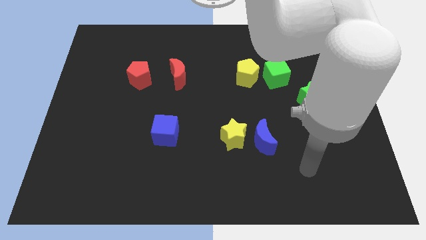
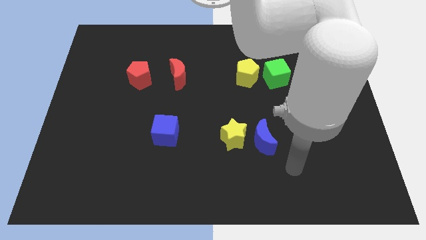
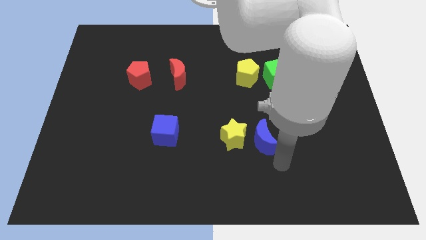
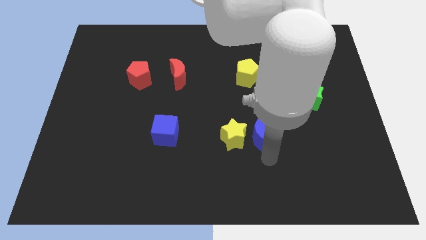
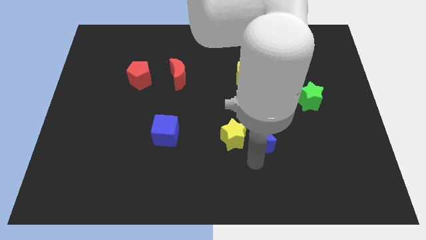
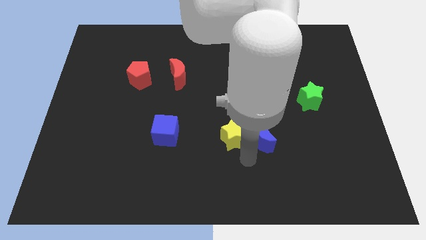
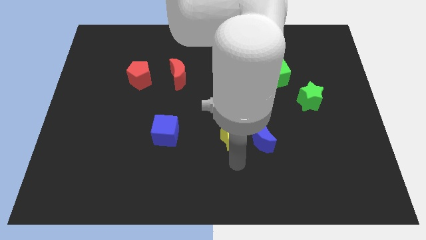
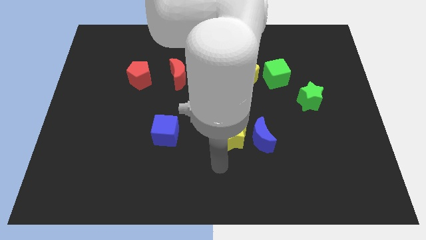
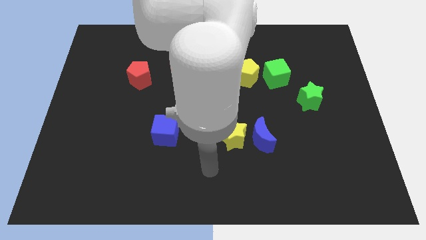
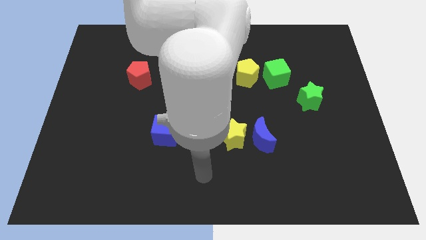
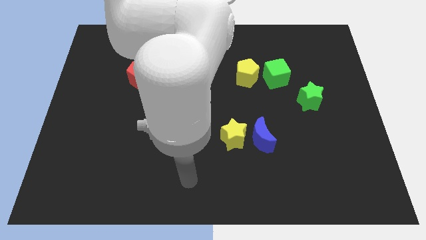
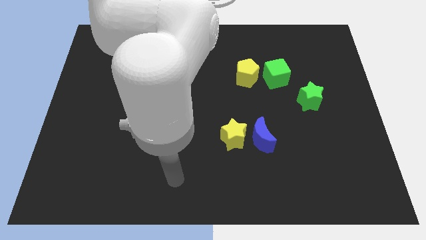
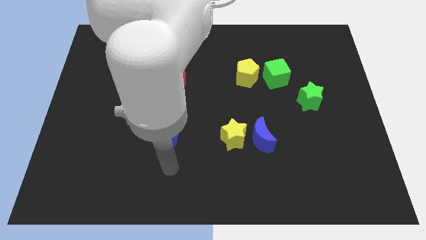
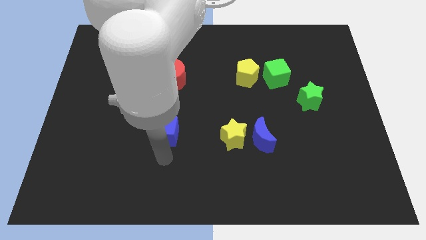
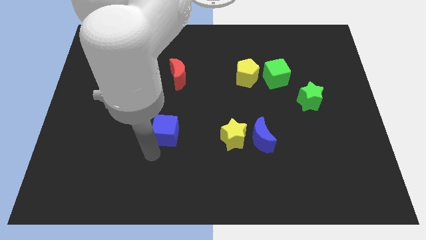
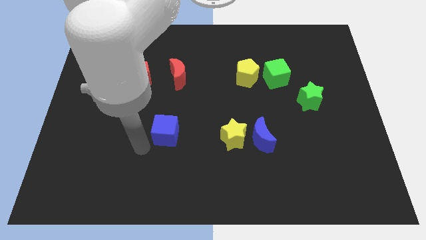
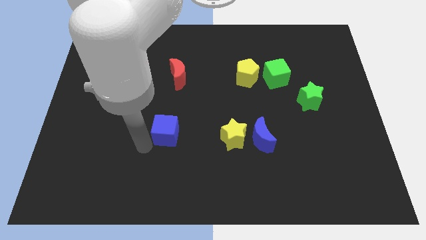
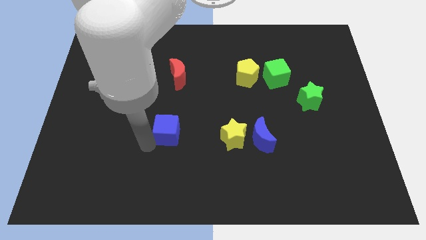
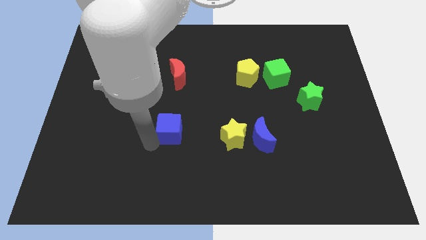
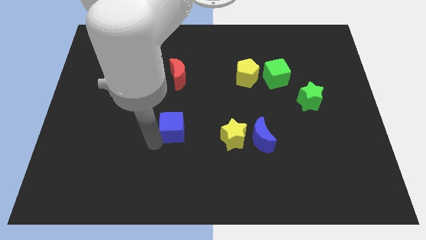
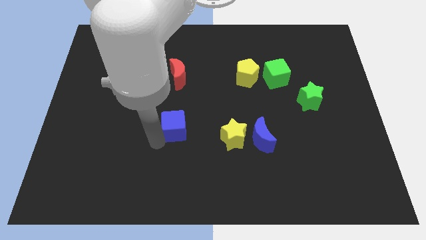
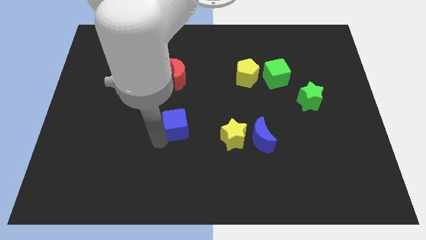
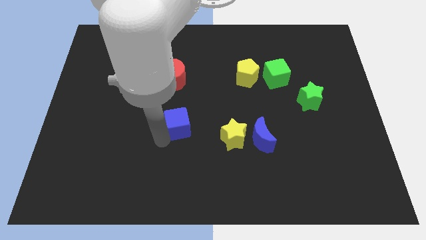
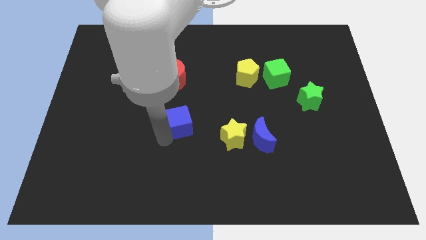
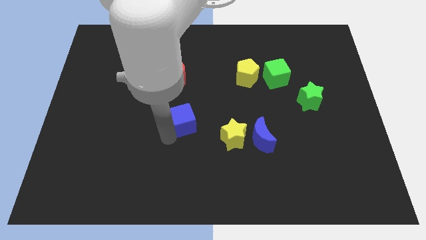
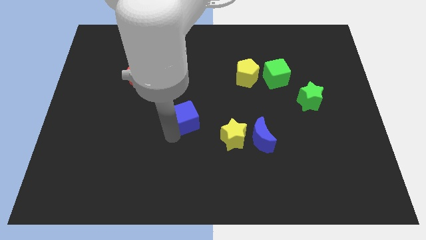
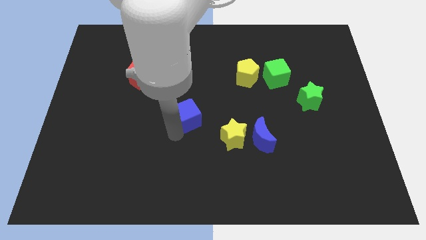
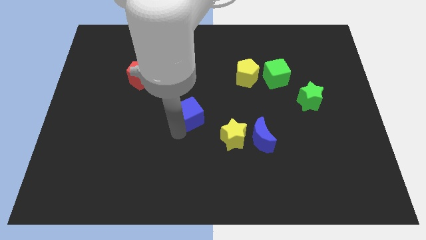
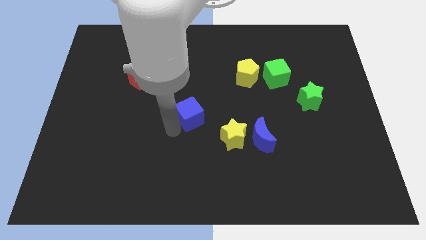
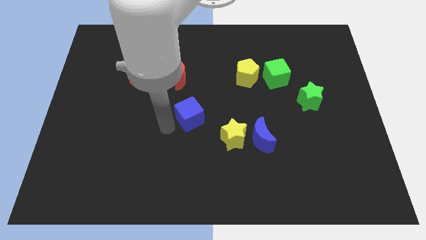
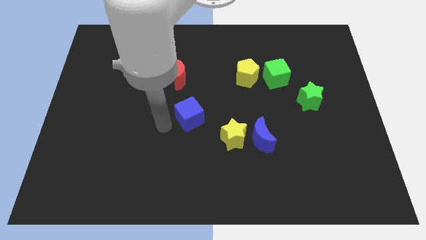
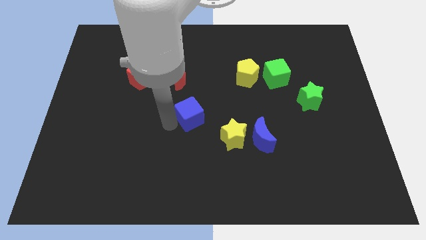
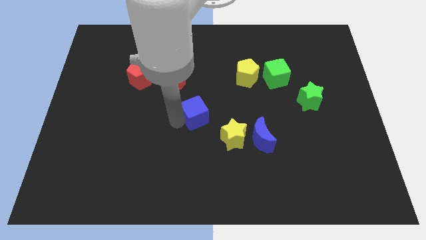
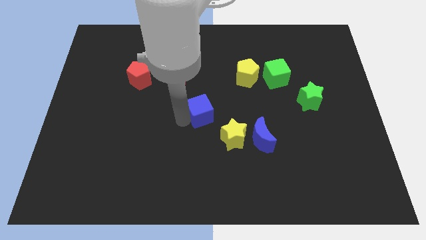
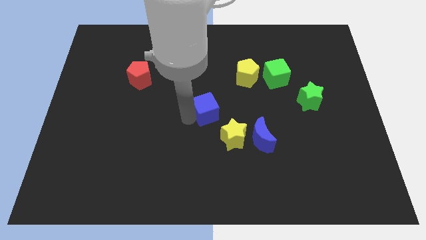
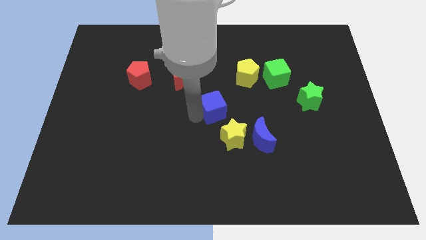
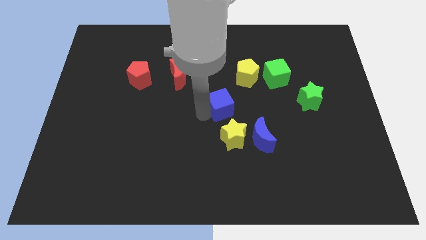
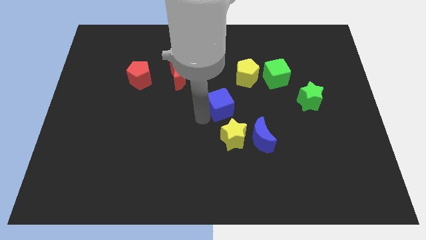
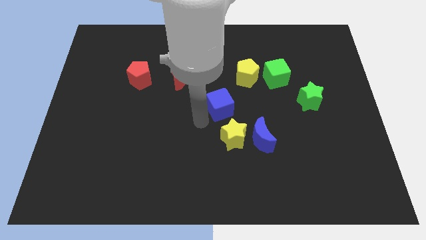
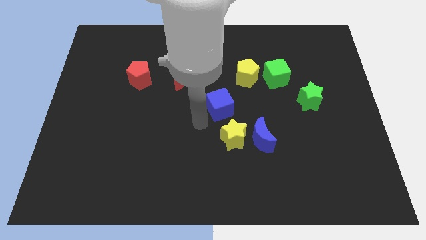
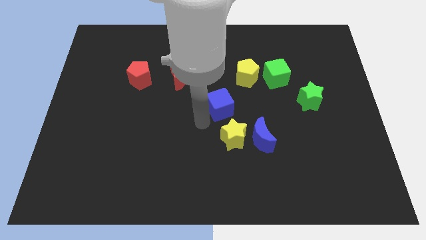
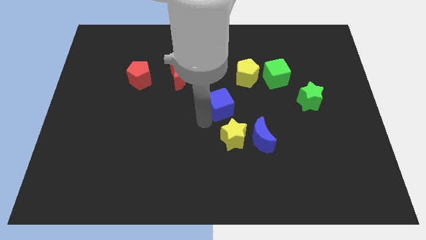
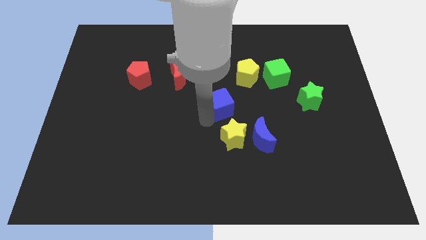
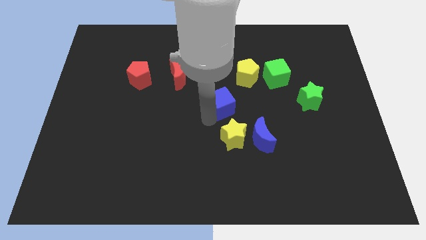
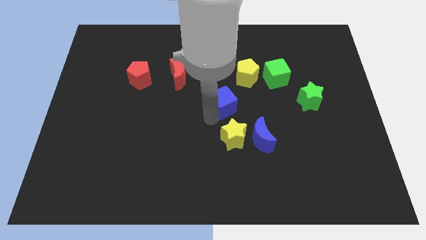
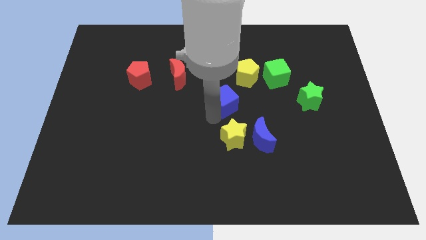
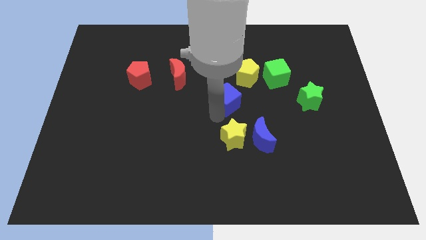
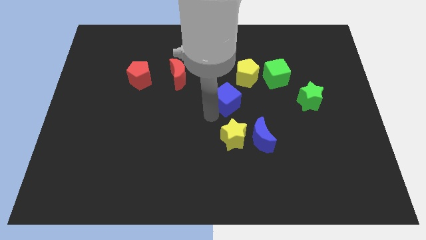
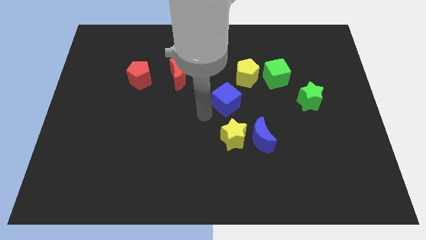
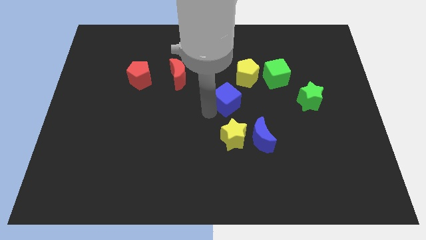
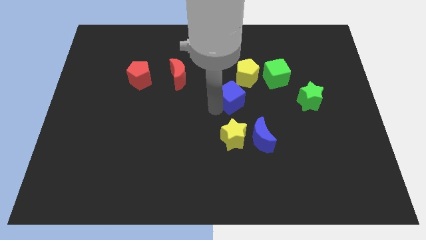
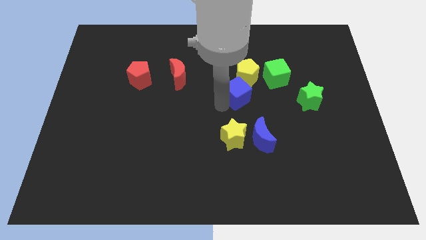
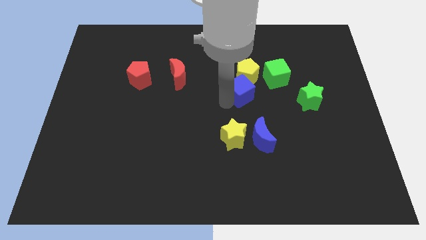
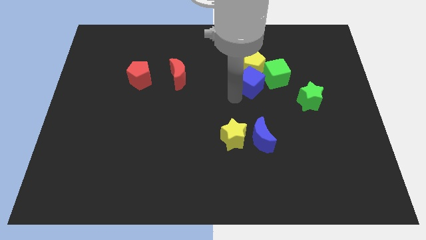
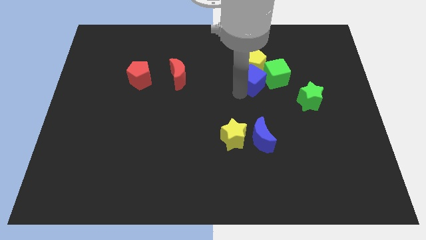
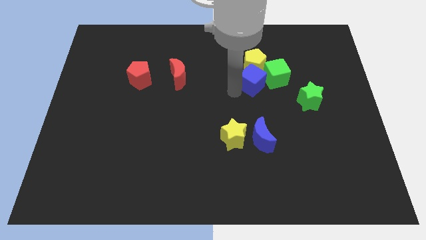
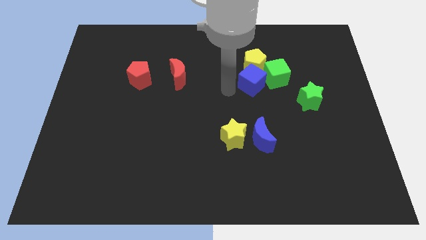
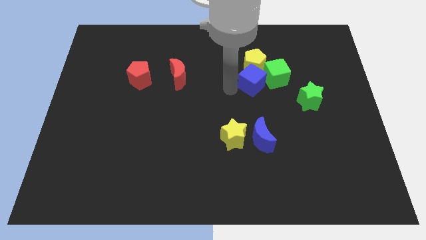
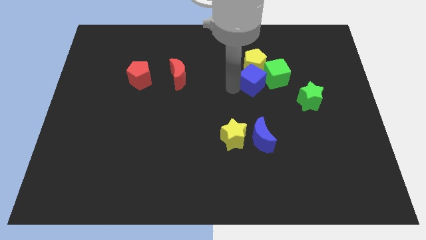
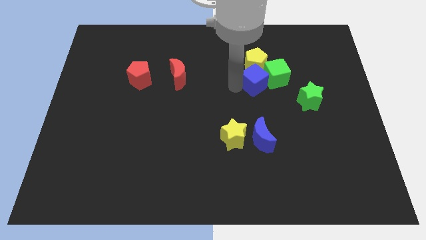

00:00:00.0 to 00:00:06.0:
move the blue cube next to the green cube

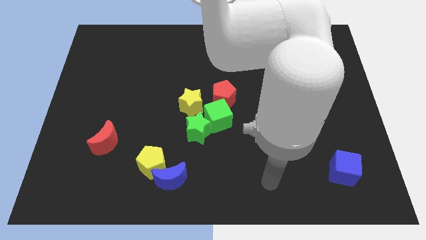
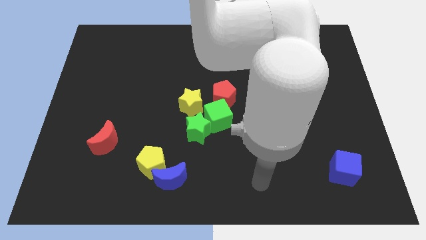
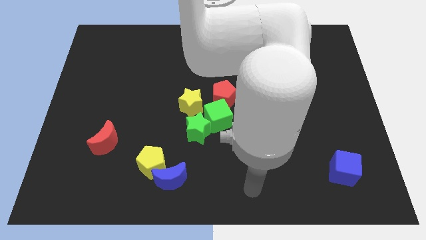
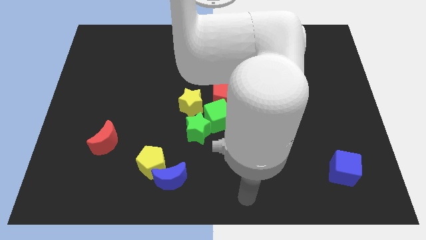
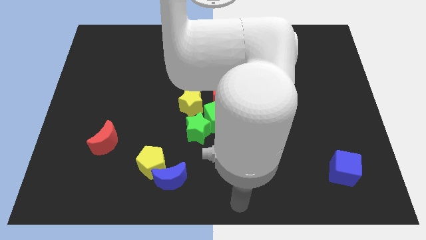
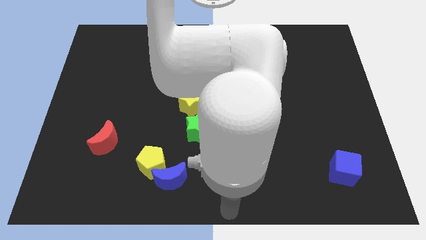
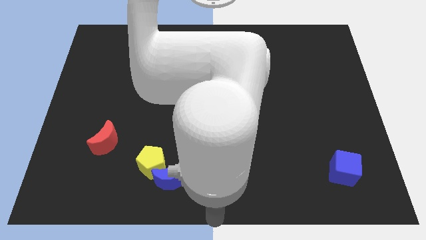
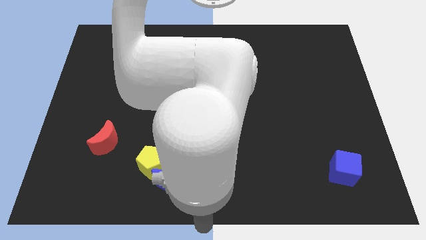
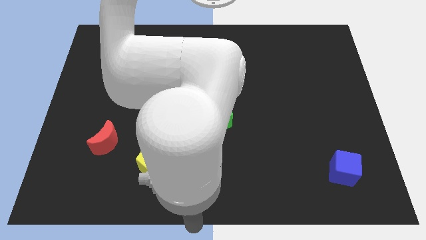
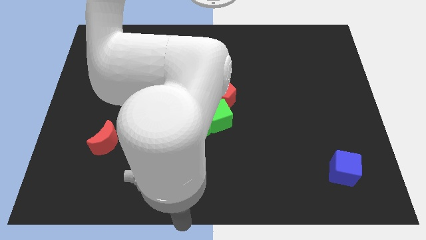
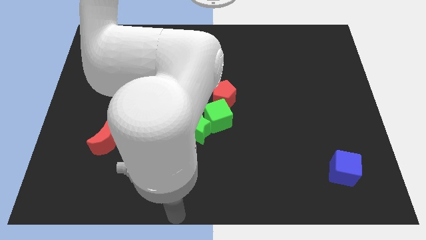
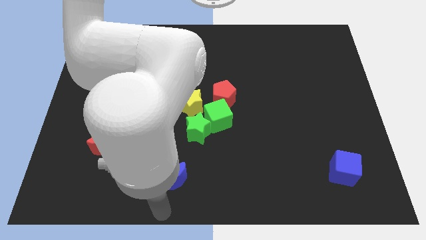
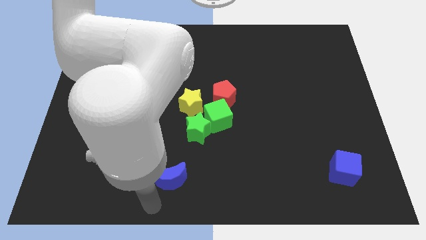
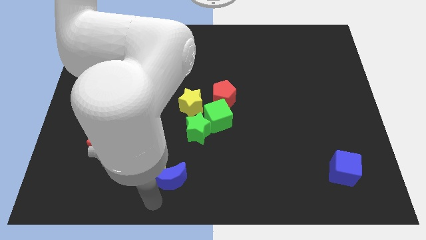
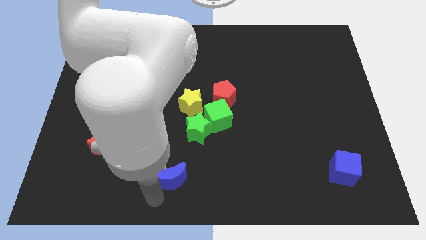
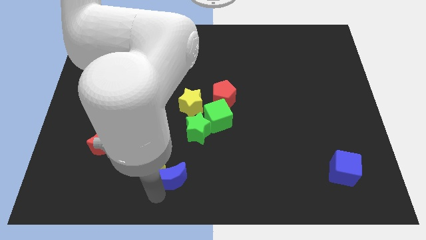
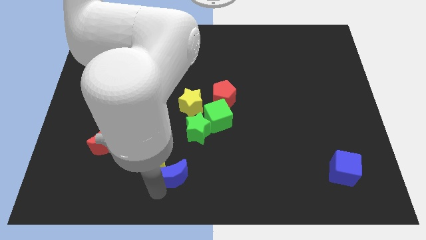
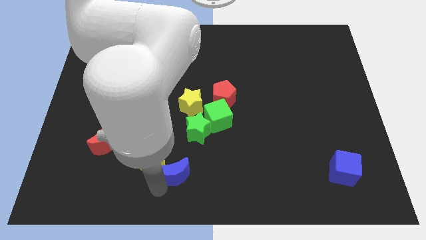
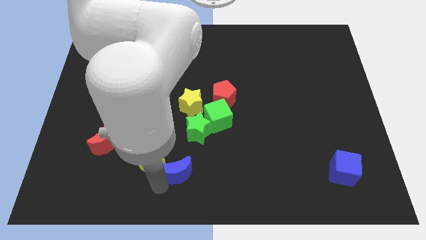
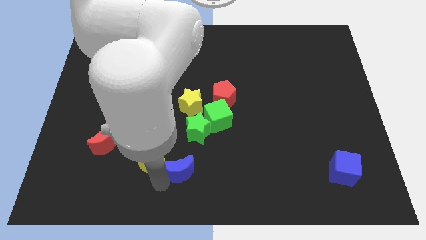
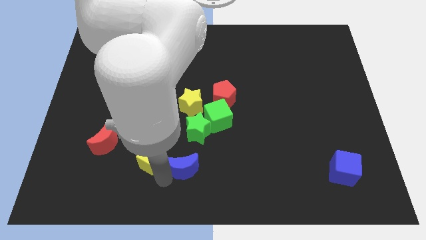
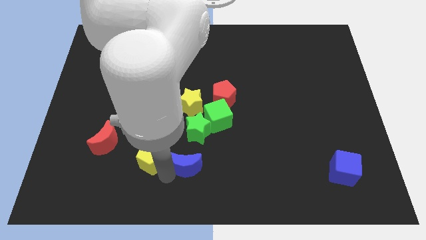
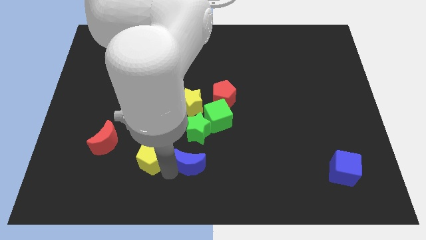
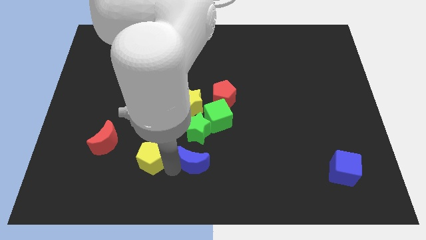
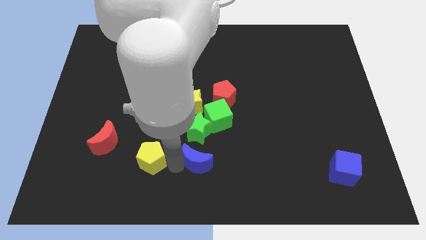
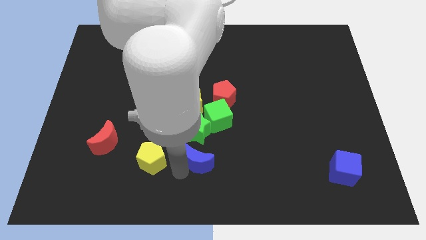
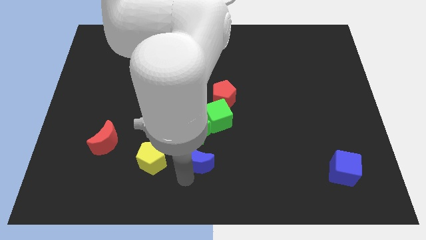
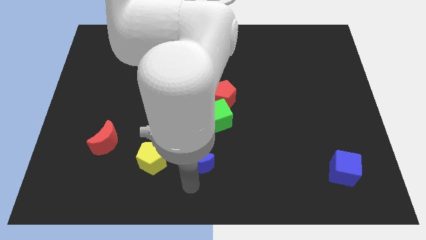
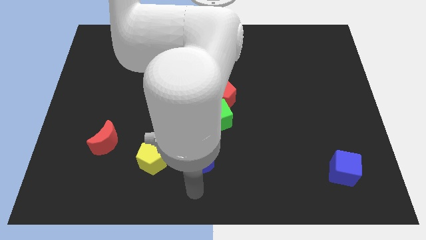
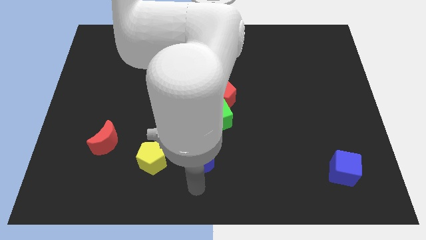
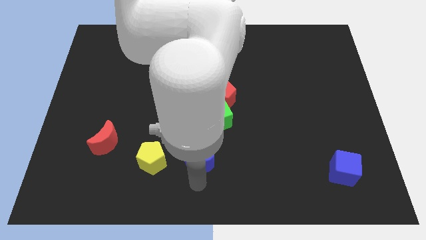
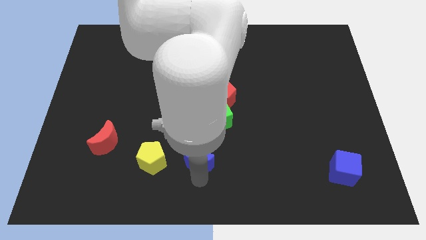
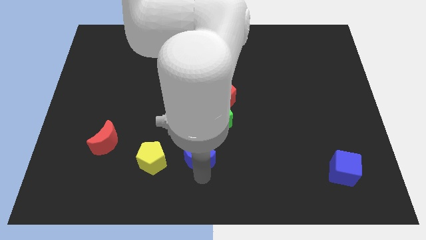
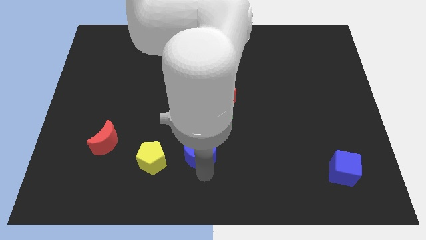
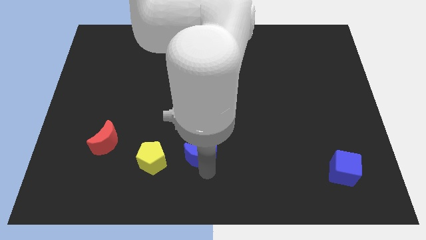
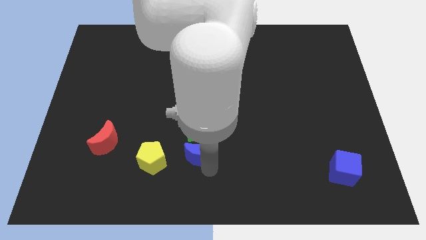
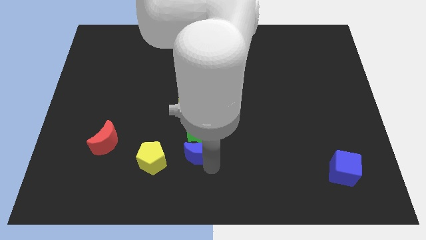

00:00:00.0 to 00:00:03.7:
push the blue moon close to the green star
